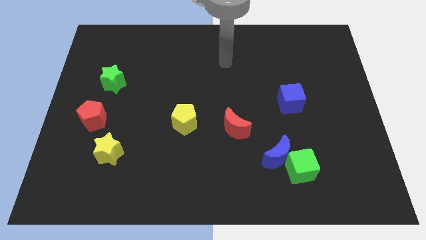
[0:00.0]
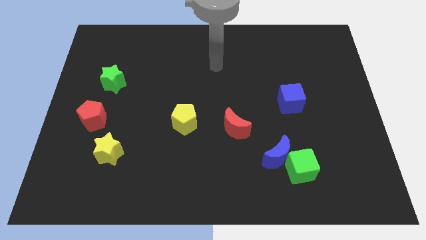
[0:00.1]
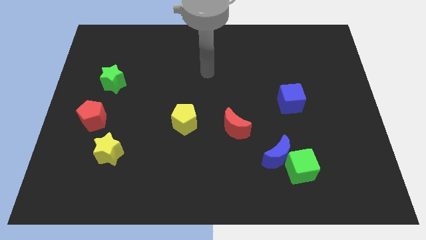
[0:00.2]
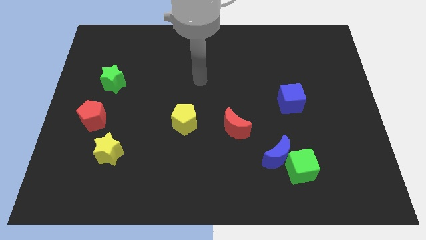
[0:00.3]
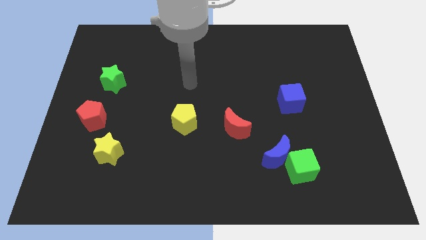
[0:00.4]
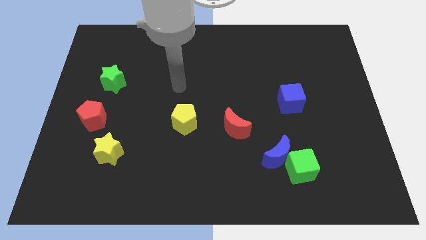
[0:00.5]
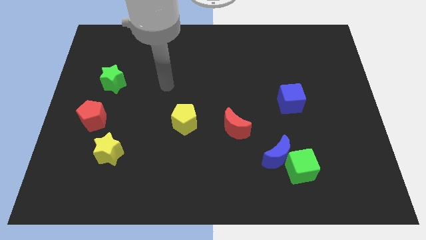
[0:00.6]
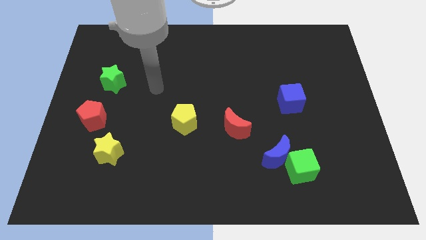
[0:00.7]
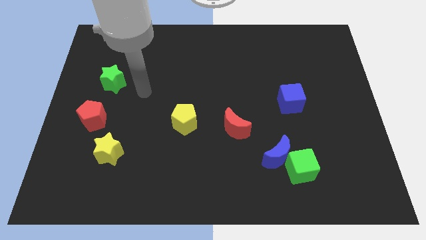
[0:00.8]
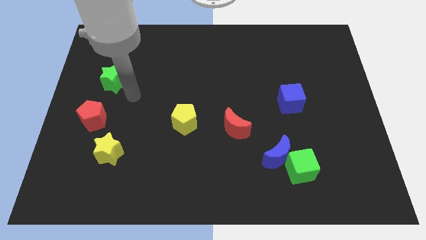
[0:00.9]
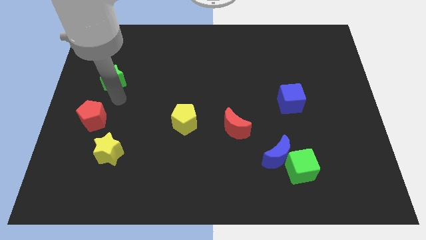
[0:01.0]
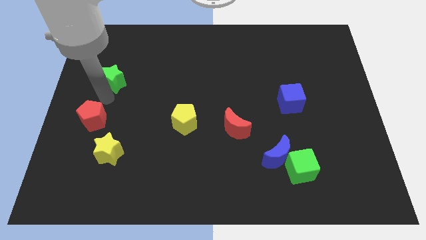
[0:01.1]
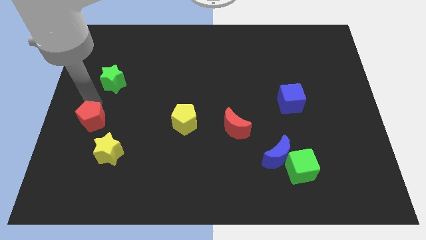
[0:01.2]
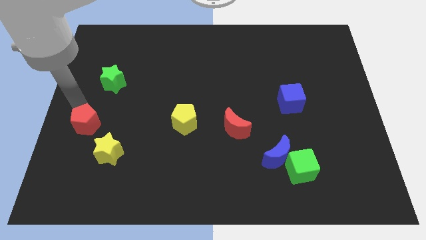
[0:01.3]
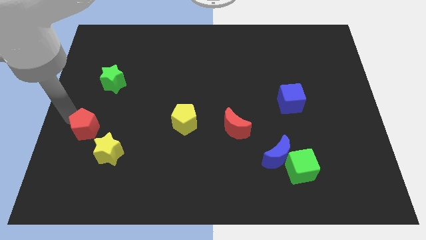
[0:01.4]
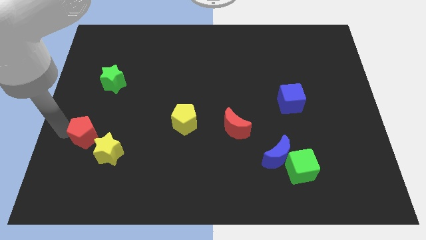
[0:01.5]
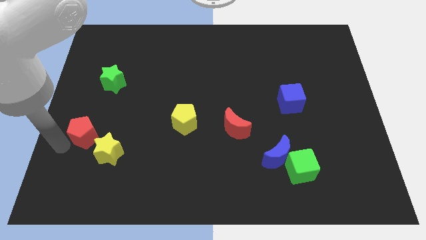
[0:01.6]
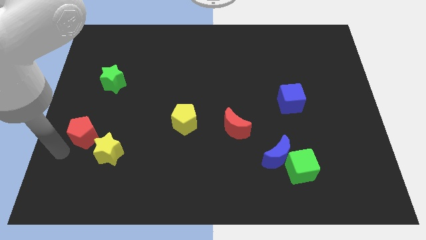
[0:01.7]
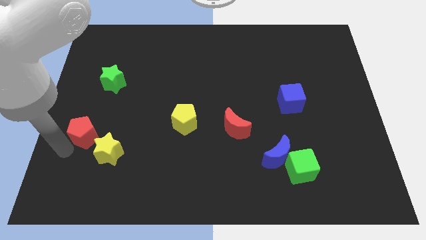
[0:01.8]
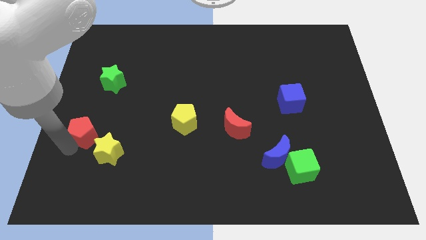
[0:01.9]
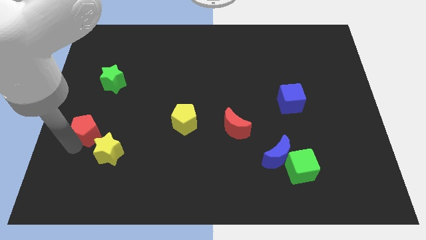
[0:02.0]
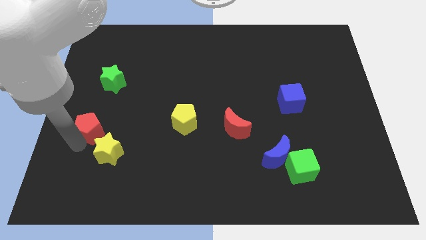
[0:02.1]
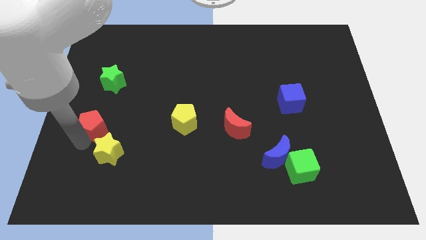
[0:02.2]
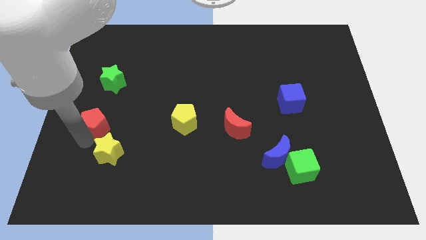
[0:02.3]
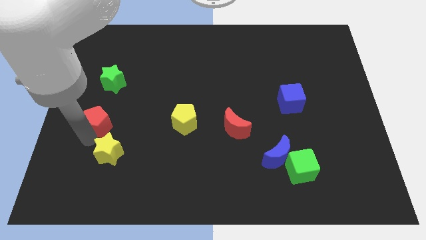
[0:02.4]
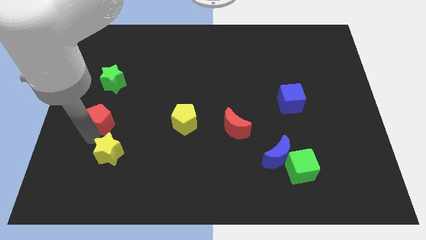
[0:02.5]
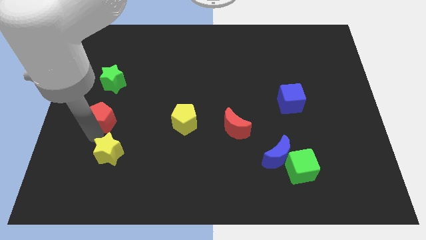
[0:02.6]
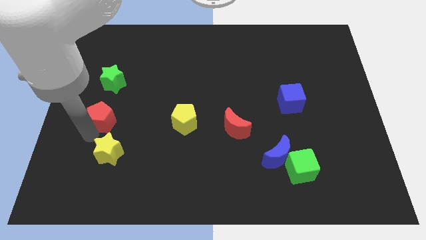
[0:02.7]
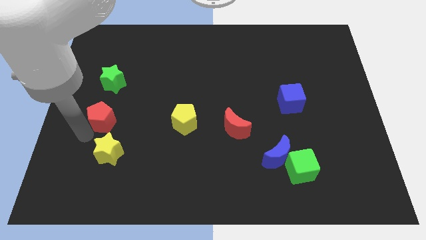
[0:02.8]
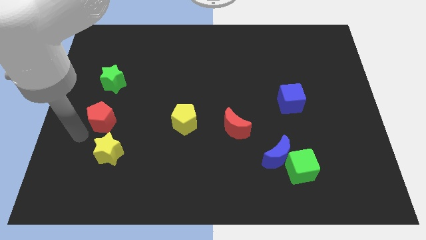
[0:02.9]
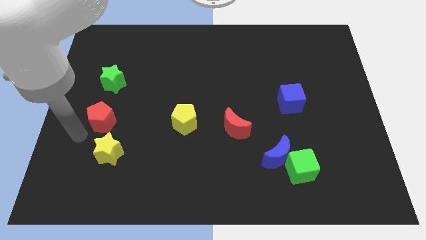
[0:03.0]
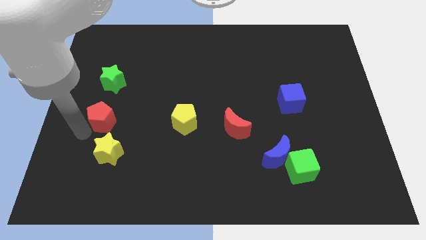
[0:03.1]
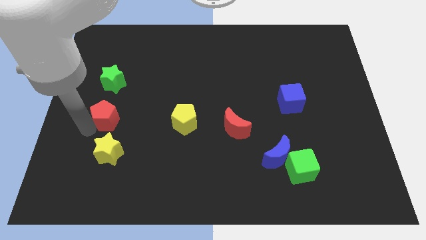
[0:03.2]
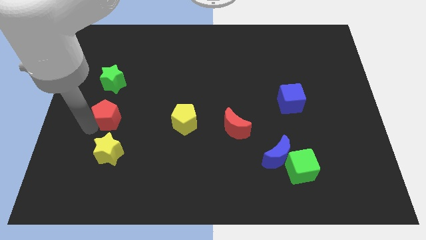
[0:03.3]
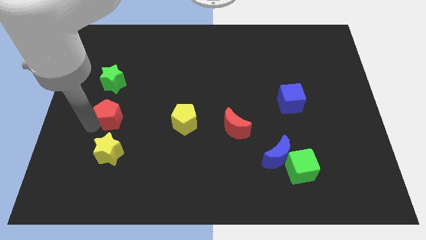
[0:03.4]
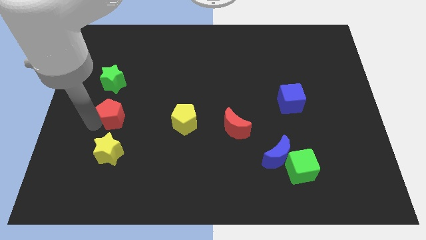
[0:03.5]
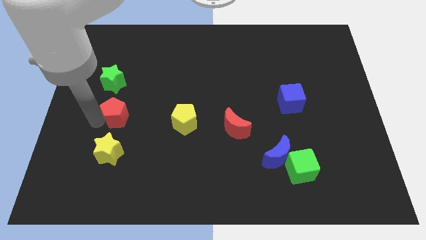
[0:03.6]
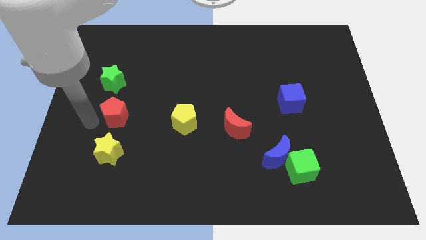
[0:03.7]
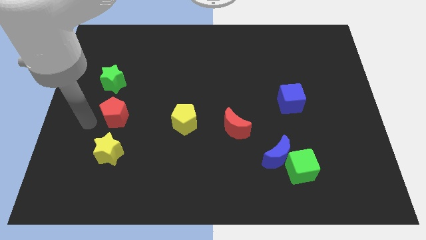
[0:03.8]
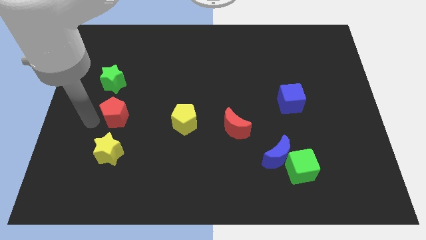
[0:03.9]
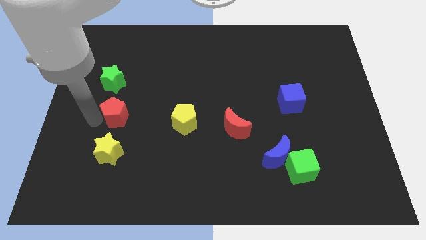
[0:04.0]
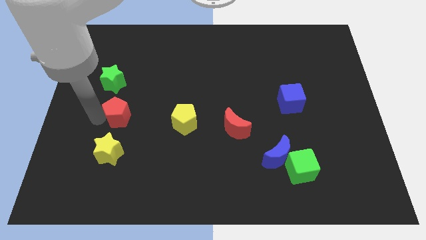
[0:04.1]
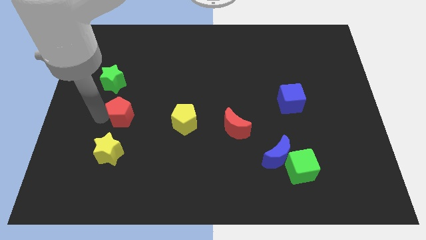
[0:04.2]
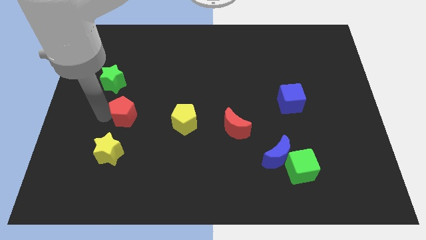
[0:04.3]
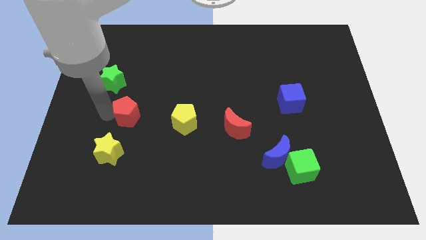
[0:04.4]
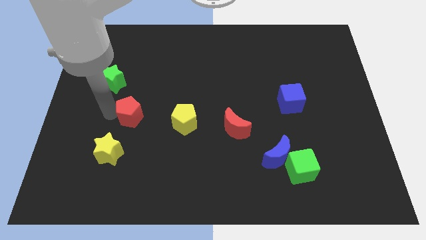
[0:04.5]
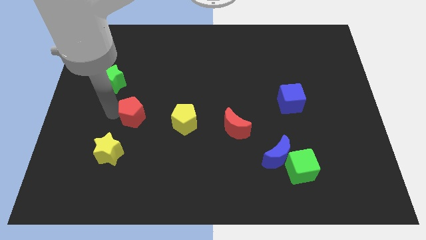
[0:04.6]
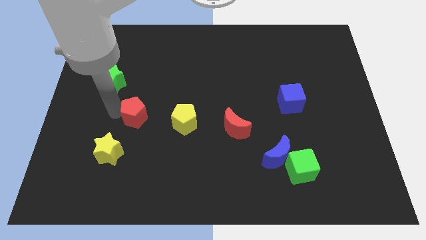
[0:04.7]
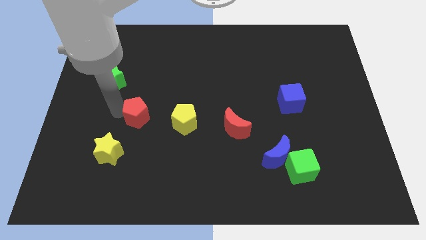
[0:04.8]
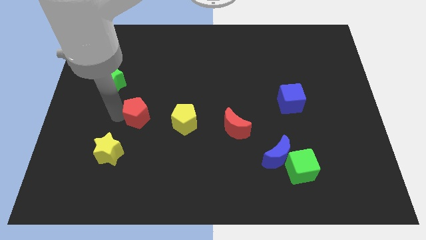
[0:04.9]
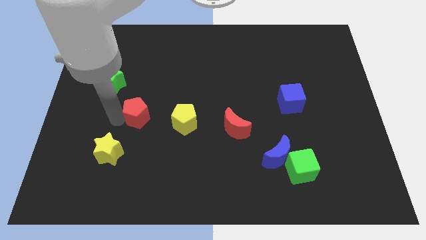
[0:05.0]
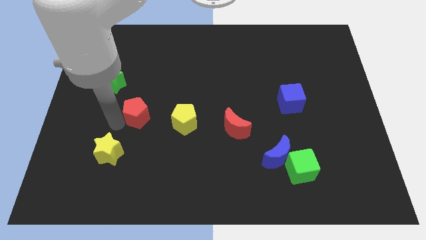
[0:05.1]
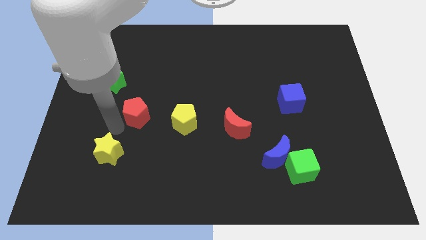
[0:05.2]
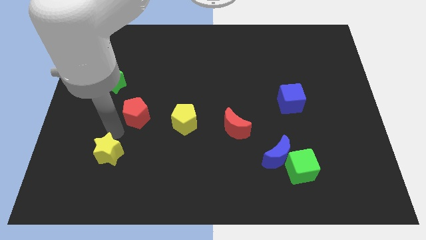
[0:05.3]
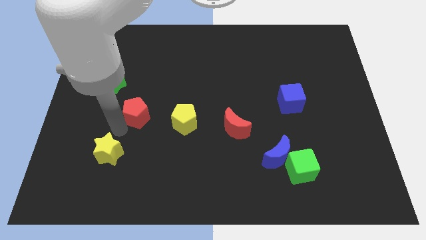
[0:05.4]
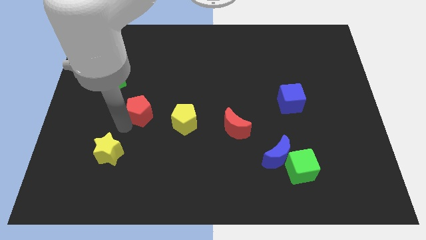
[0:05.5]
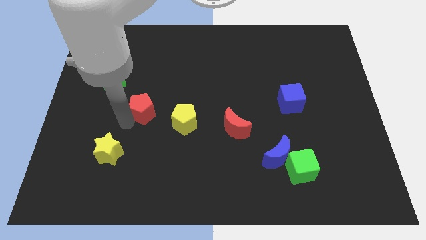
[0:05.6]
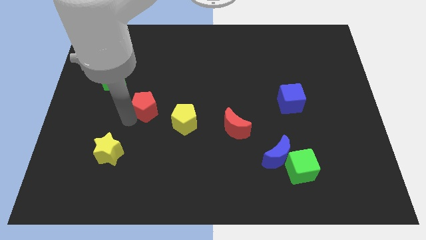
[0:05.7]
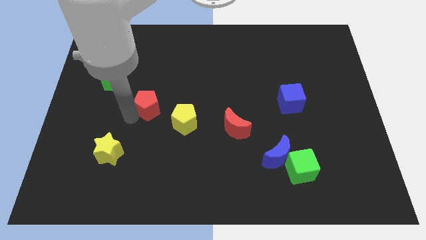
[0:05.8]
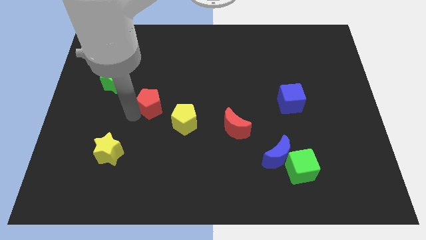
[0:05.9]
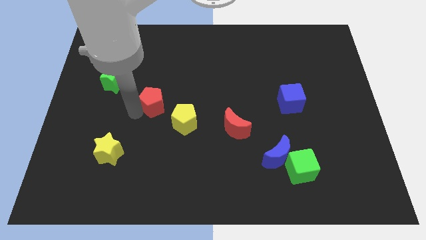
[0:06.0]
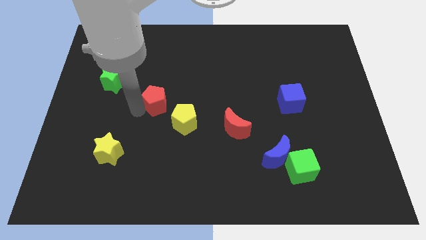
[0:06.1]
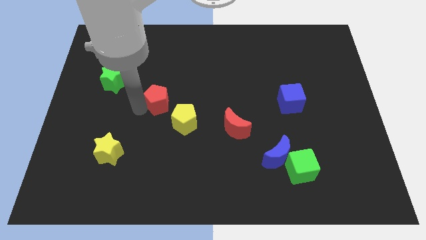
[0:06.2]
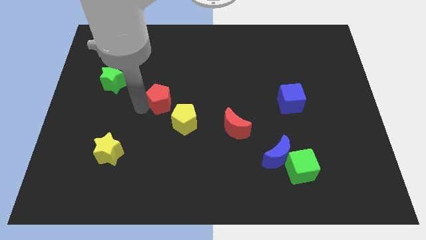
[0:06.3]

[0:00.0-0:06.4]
move the red pentagon to the middle
